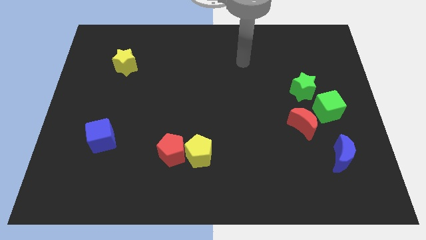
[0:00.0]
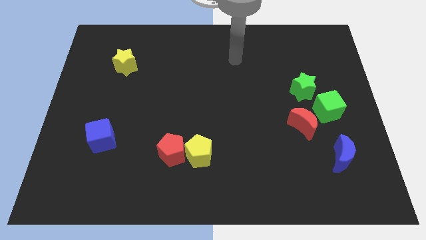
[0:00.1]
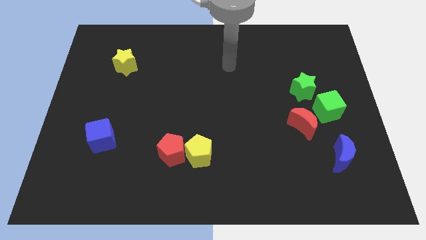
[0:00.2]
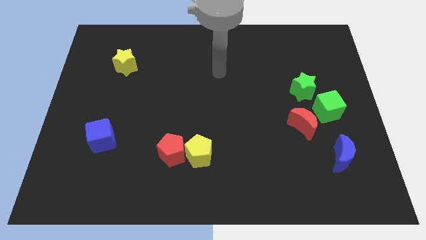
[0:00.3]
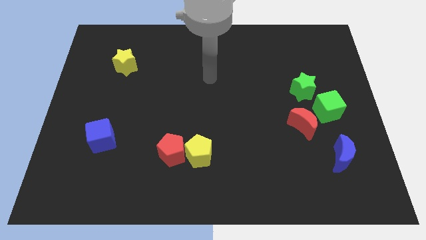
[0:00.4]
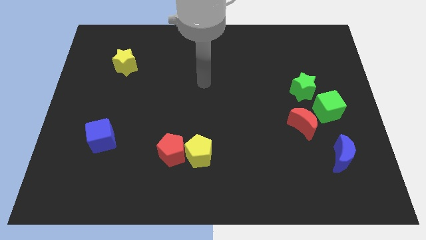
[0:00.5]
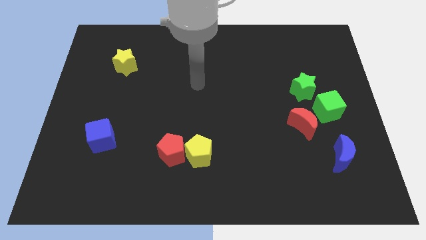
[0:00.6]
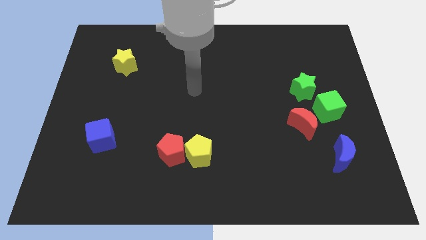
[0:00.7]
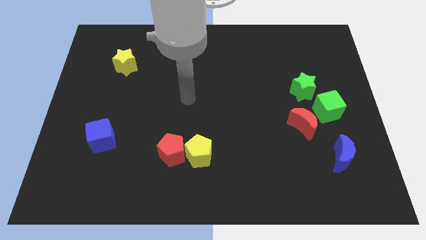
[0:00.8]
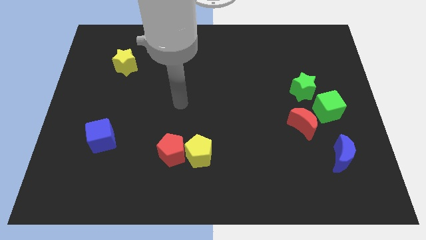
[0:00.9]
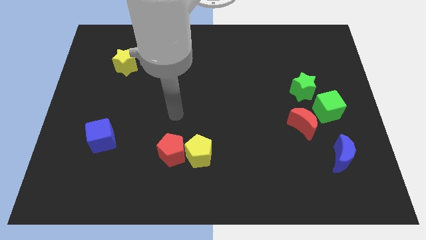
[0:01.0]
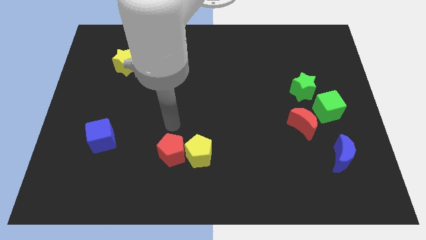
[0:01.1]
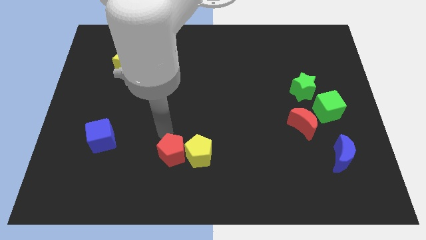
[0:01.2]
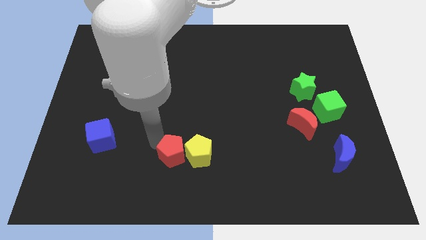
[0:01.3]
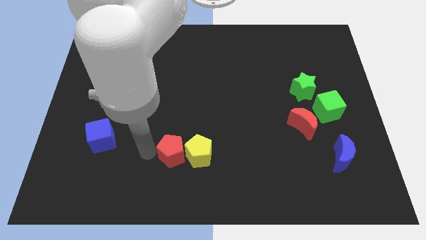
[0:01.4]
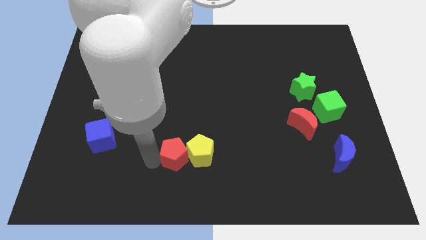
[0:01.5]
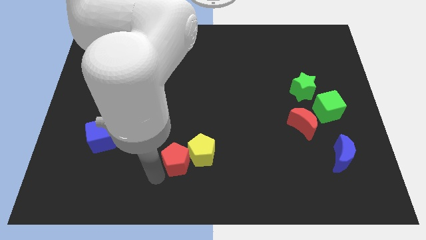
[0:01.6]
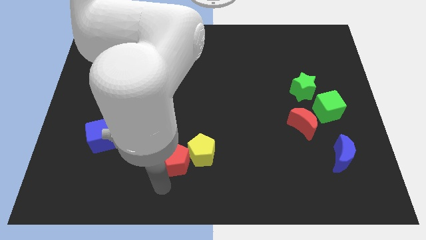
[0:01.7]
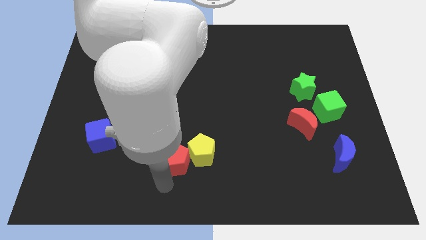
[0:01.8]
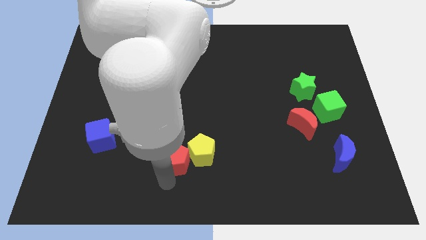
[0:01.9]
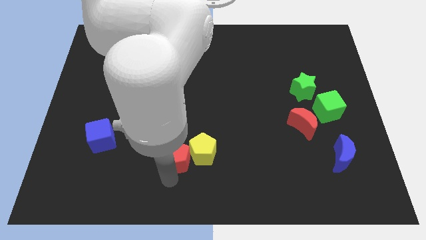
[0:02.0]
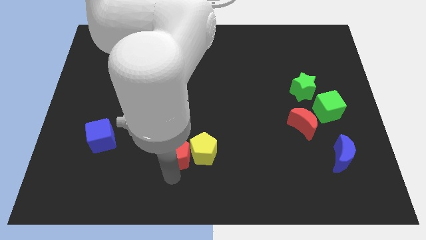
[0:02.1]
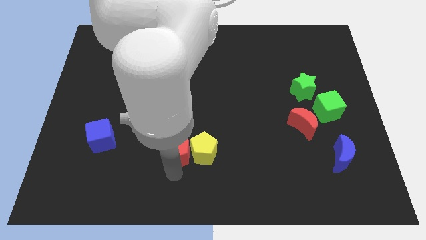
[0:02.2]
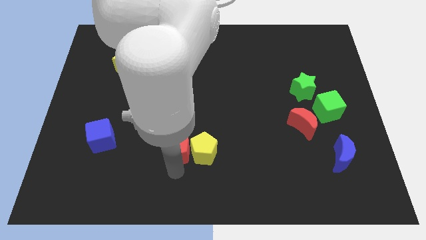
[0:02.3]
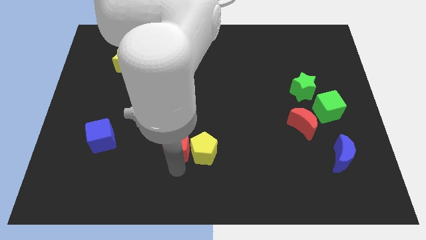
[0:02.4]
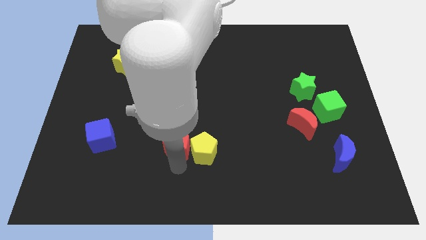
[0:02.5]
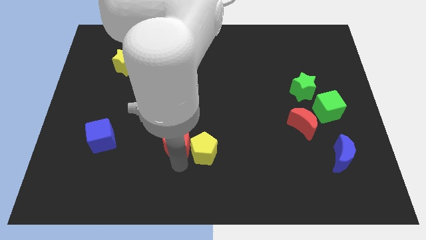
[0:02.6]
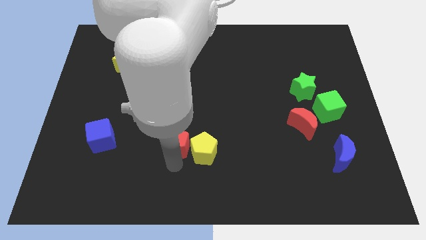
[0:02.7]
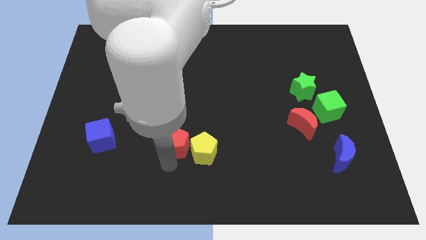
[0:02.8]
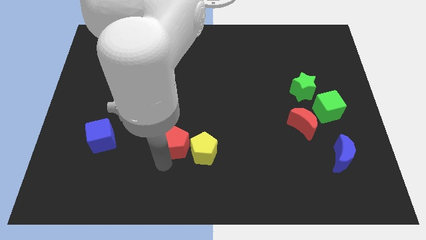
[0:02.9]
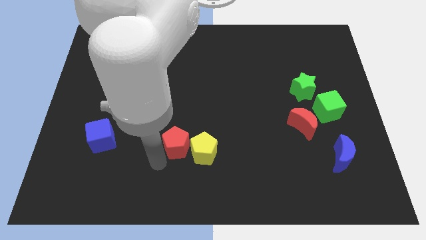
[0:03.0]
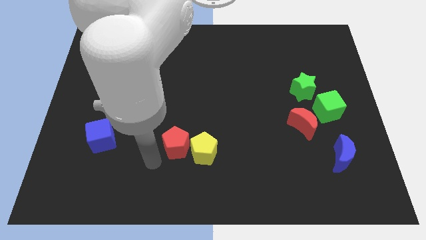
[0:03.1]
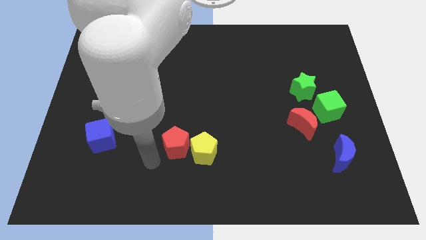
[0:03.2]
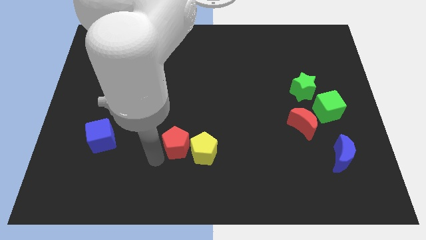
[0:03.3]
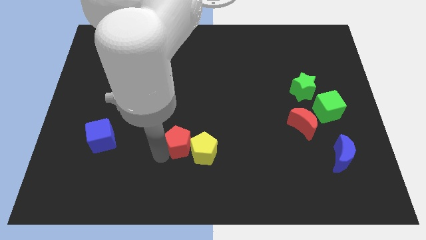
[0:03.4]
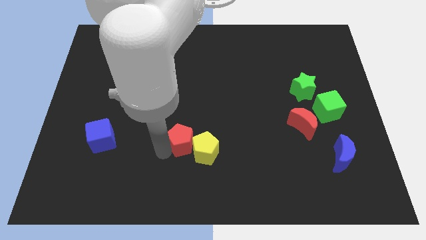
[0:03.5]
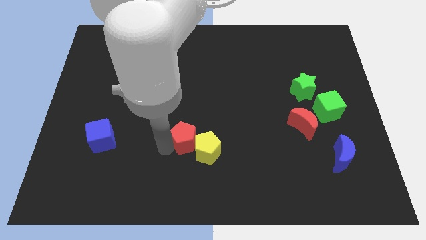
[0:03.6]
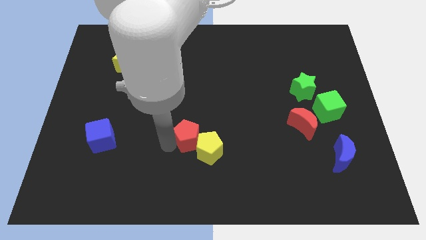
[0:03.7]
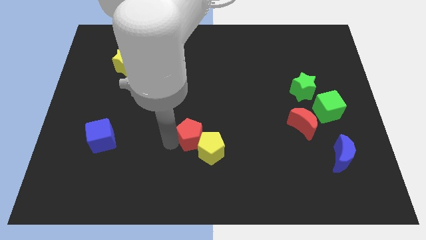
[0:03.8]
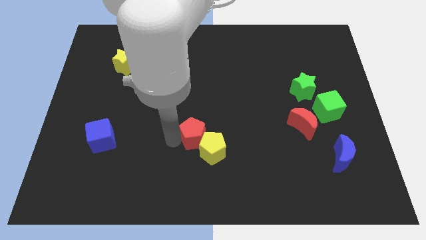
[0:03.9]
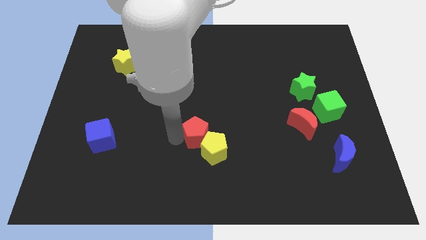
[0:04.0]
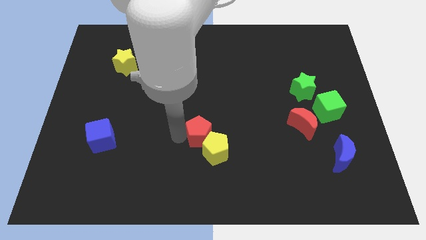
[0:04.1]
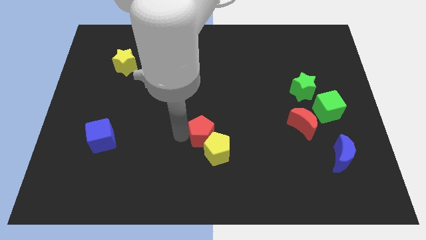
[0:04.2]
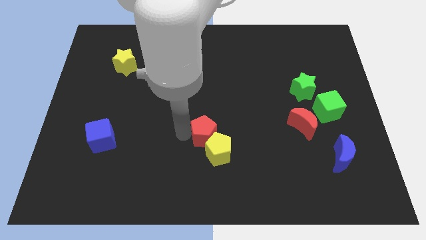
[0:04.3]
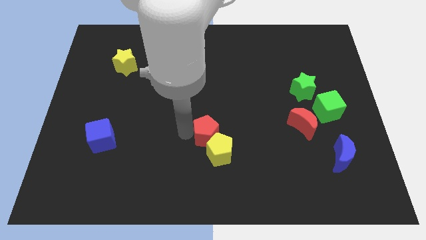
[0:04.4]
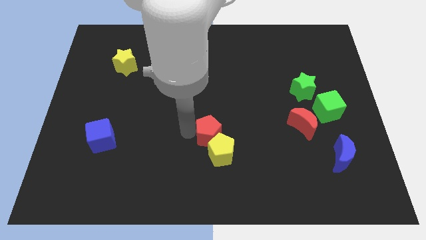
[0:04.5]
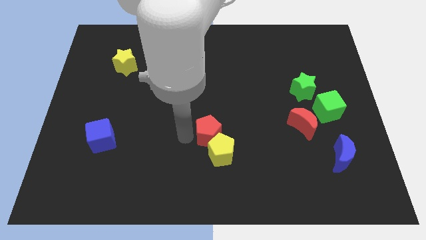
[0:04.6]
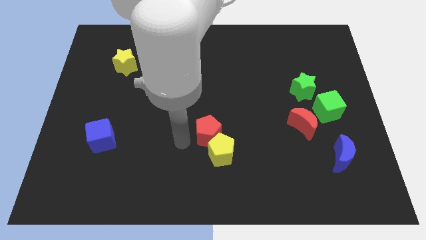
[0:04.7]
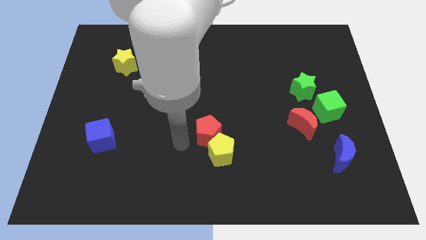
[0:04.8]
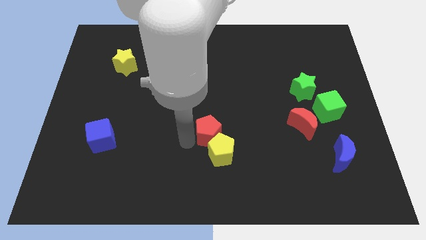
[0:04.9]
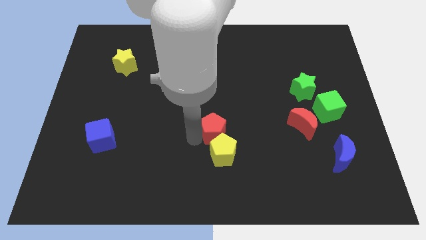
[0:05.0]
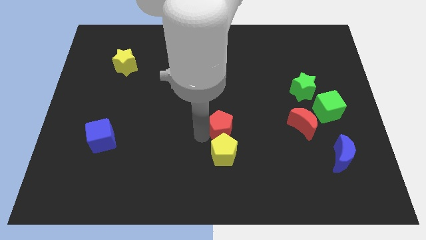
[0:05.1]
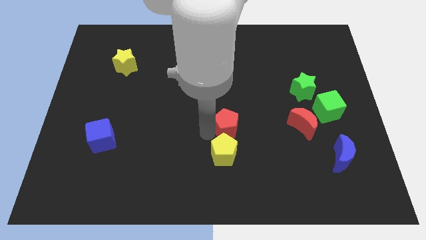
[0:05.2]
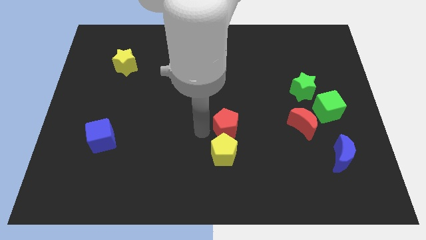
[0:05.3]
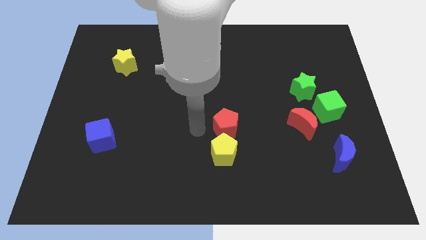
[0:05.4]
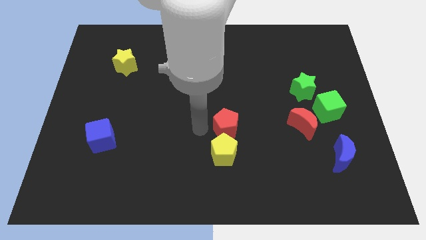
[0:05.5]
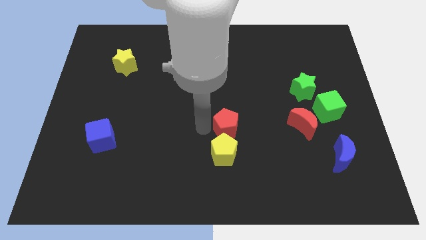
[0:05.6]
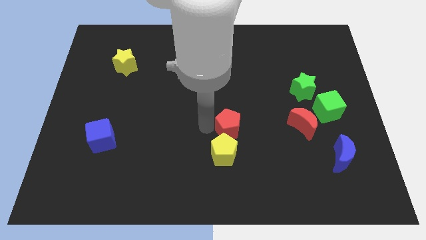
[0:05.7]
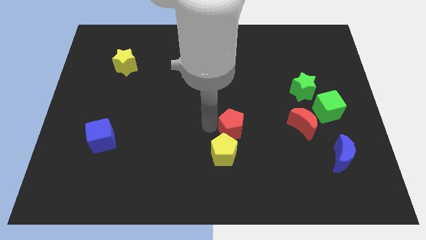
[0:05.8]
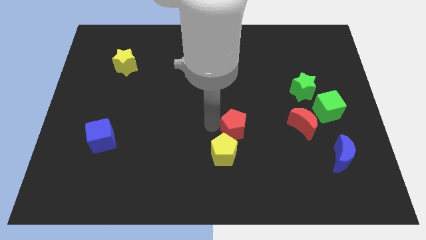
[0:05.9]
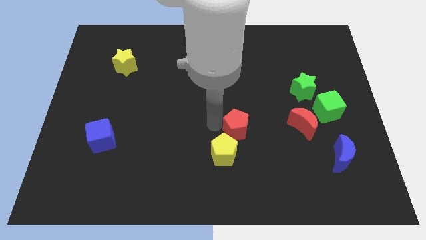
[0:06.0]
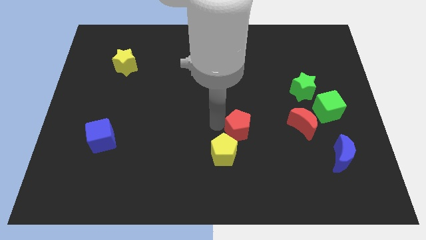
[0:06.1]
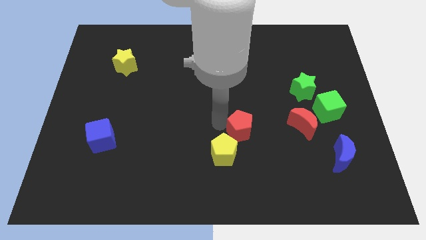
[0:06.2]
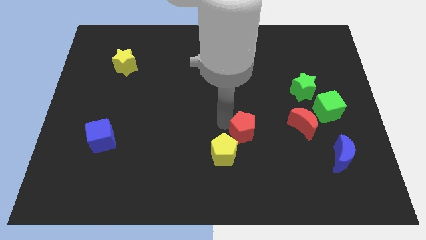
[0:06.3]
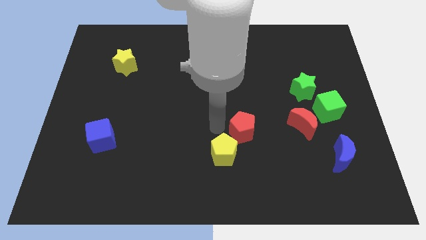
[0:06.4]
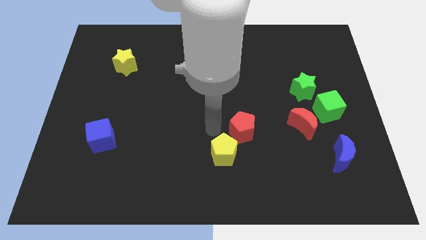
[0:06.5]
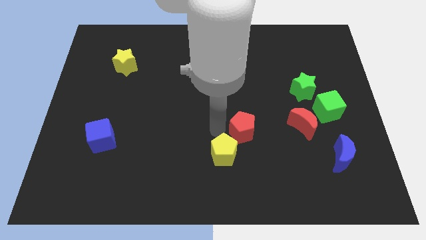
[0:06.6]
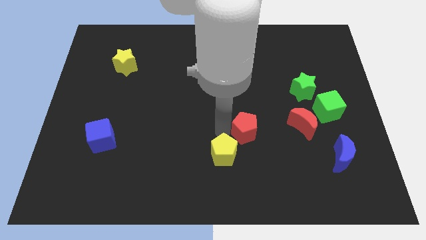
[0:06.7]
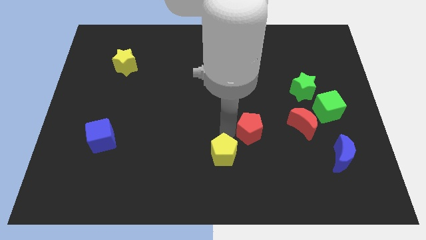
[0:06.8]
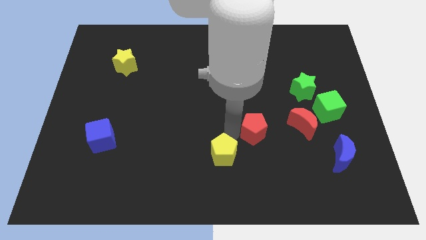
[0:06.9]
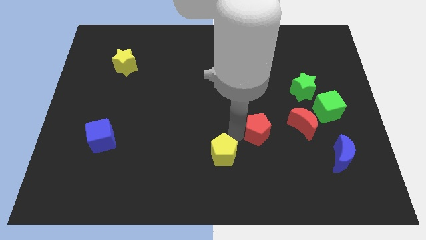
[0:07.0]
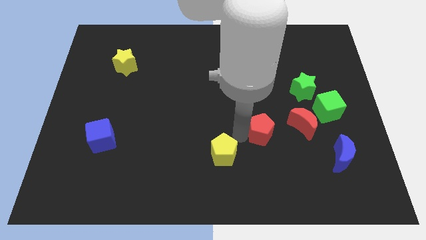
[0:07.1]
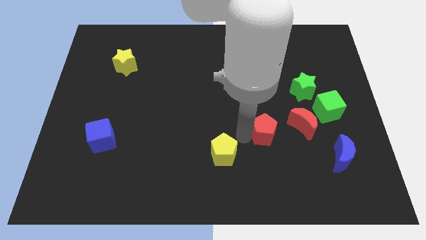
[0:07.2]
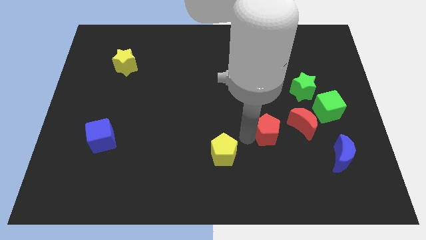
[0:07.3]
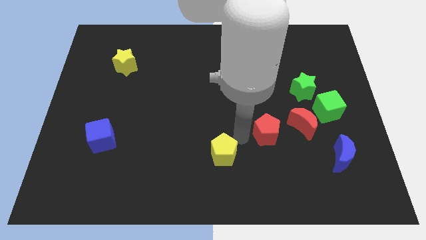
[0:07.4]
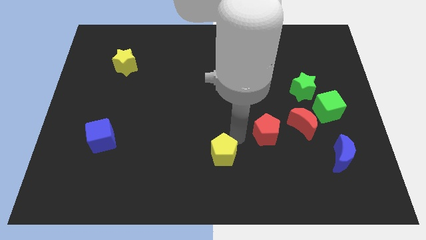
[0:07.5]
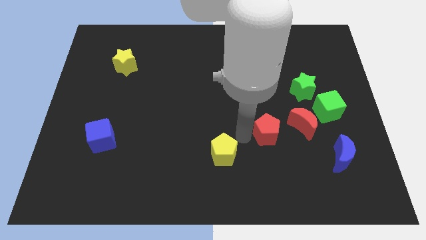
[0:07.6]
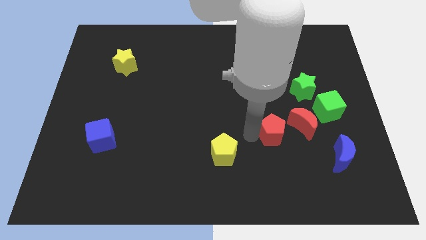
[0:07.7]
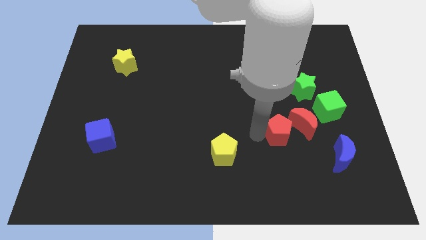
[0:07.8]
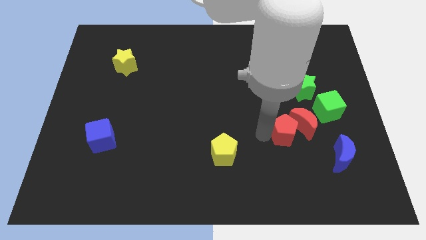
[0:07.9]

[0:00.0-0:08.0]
slide the red pentagon towards the red moon

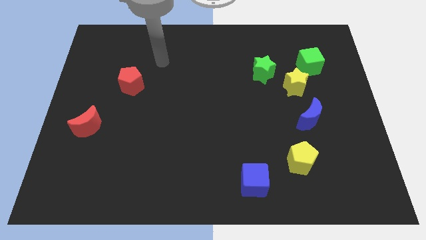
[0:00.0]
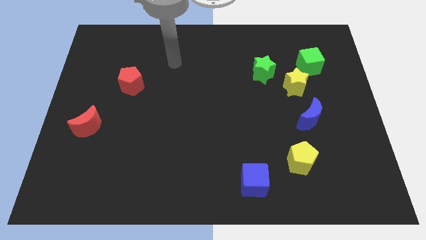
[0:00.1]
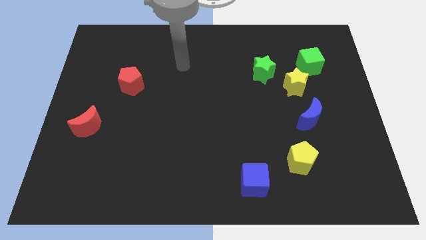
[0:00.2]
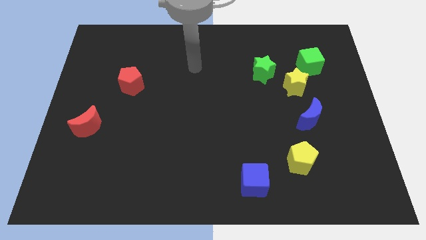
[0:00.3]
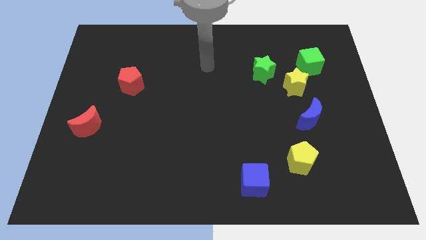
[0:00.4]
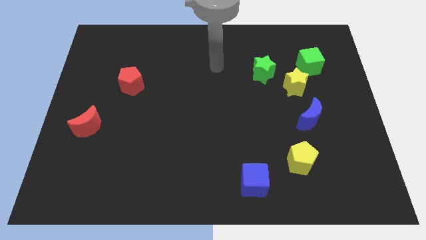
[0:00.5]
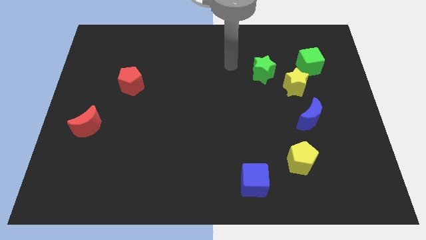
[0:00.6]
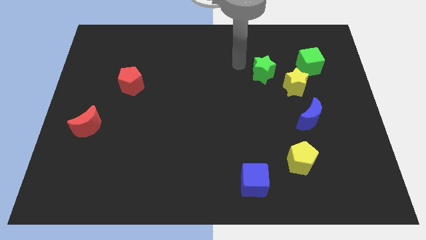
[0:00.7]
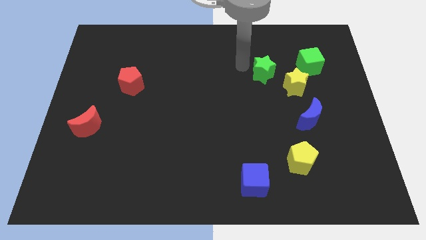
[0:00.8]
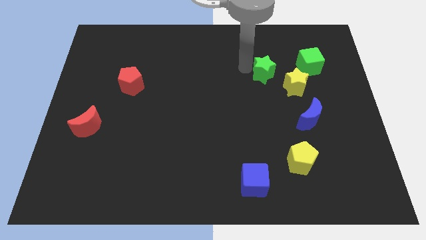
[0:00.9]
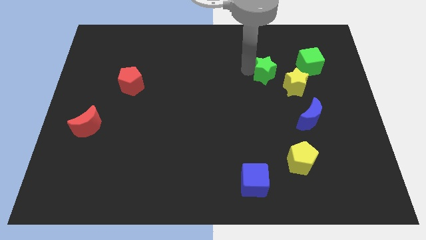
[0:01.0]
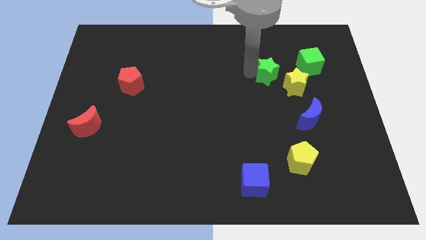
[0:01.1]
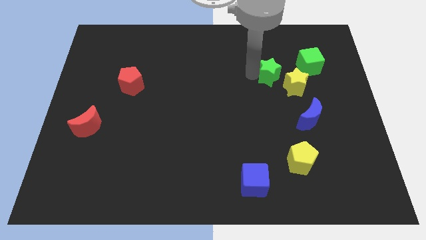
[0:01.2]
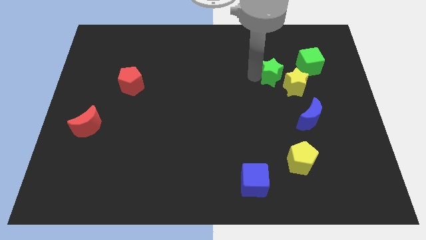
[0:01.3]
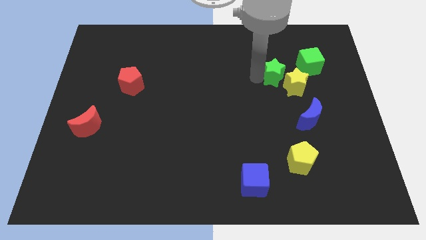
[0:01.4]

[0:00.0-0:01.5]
put the green star next to the yellow star
